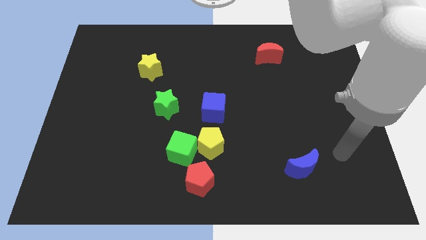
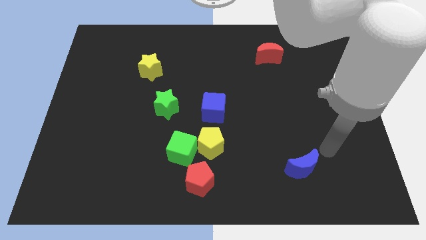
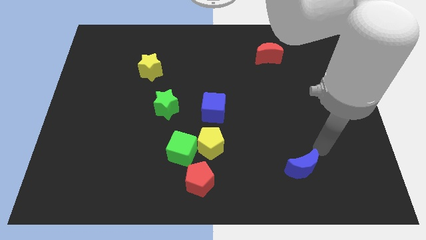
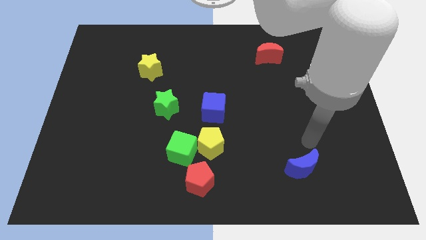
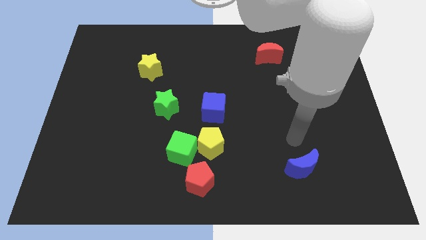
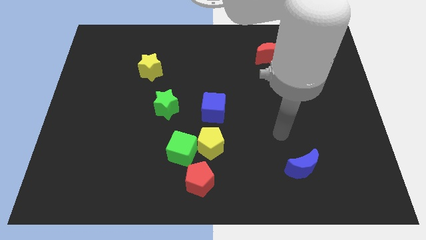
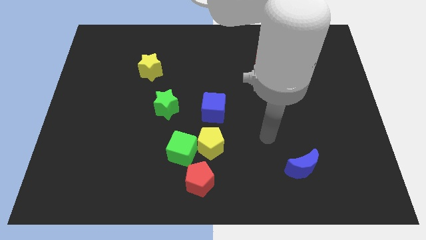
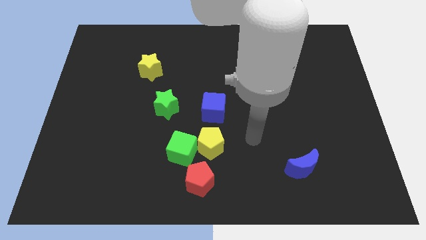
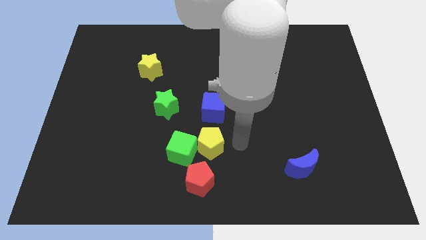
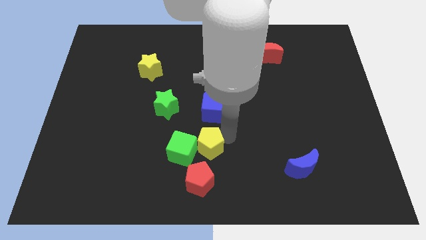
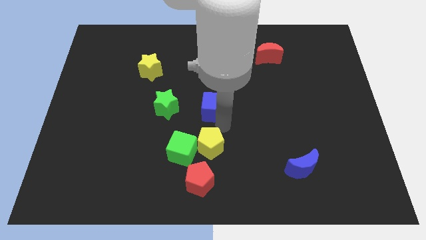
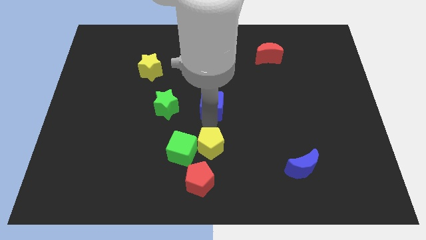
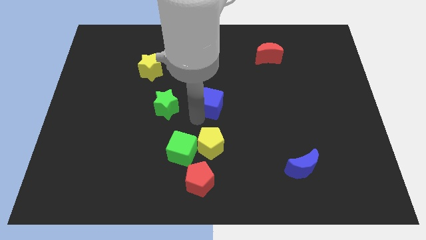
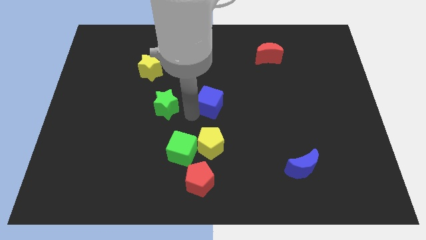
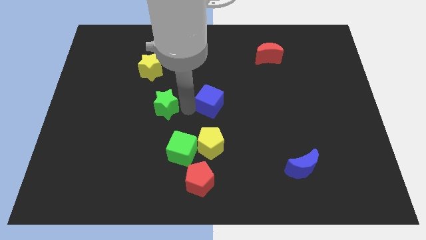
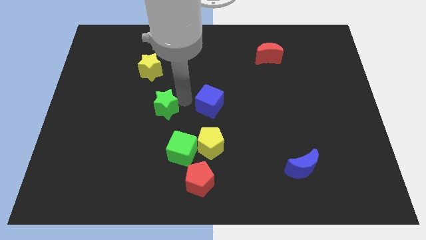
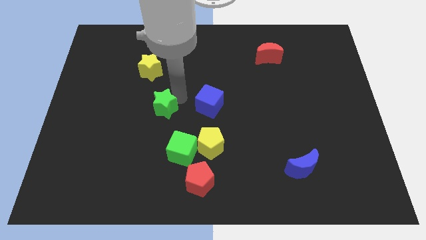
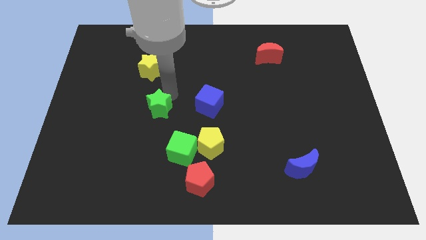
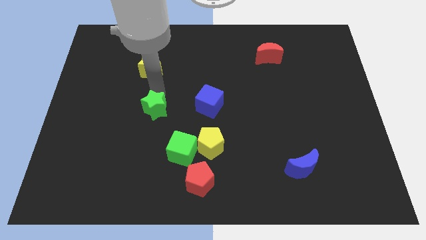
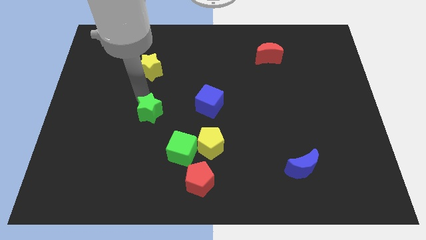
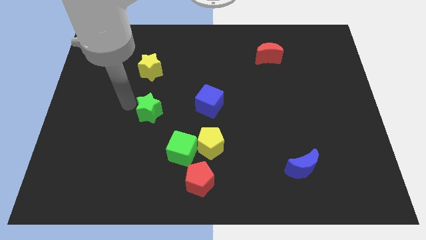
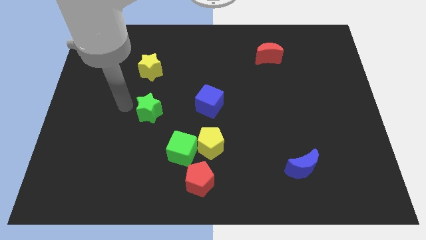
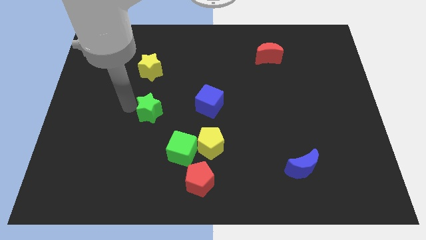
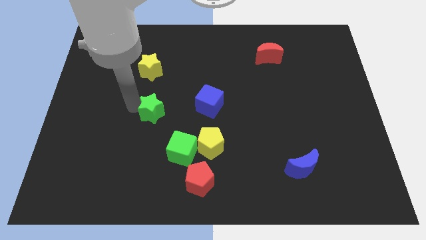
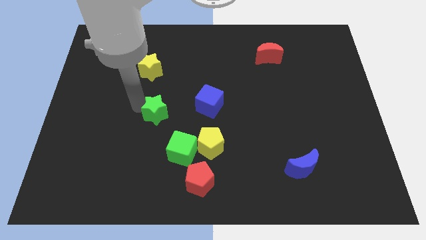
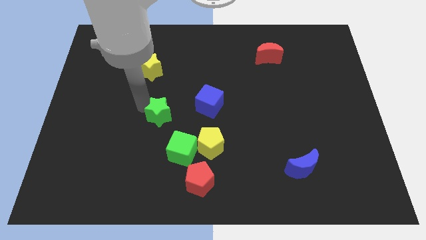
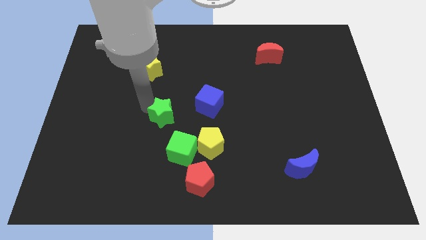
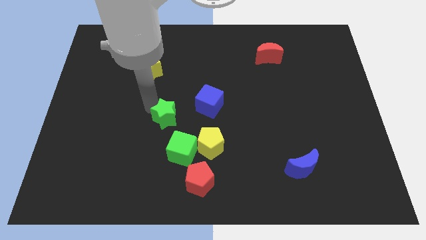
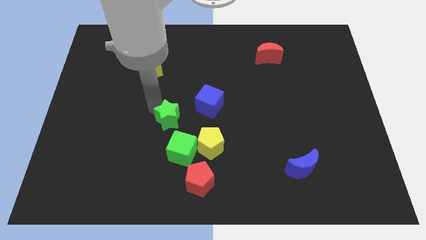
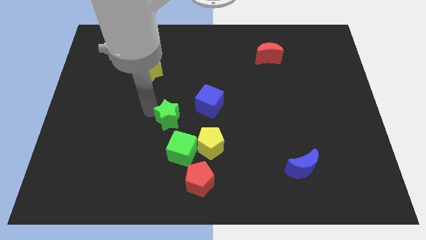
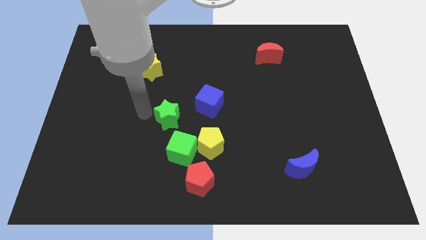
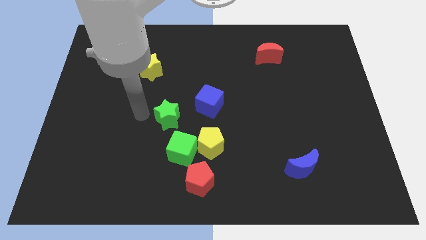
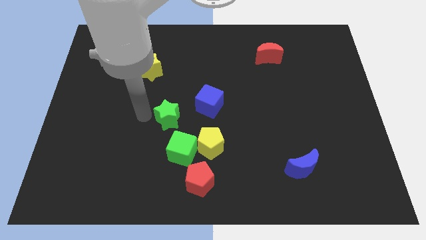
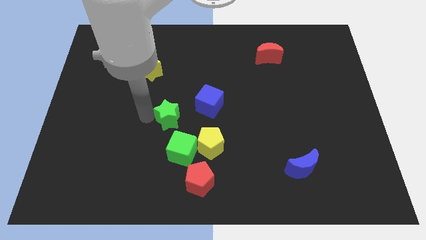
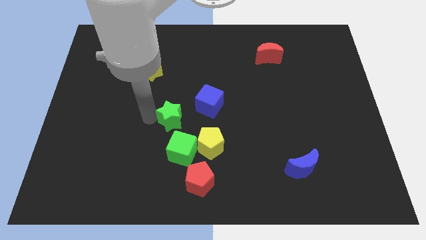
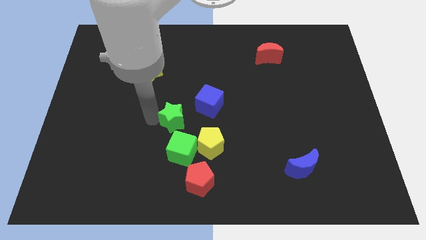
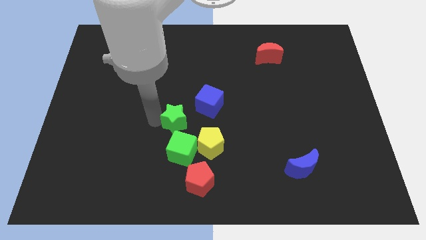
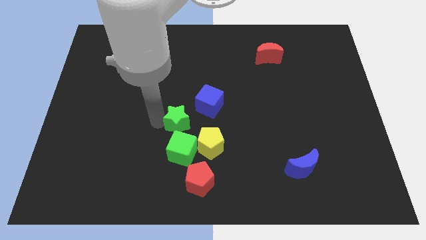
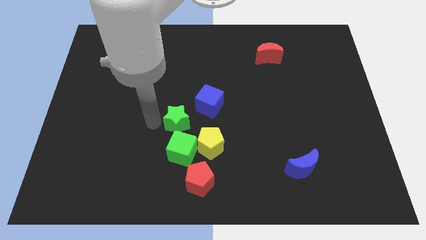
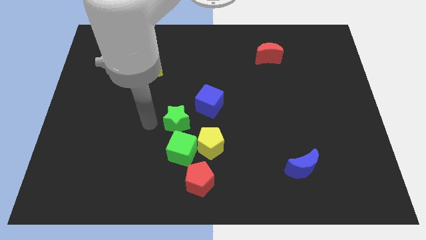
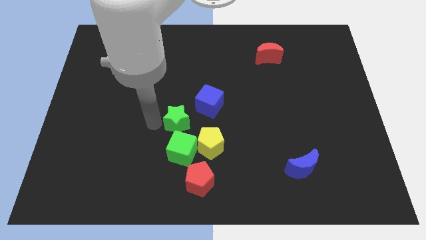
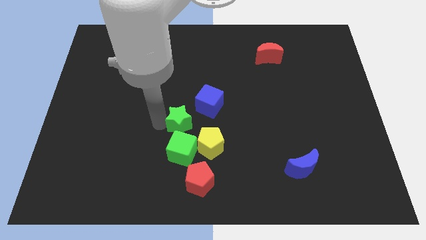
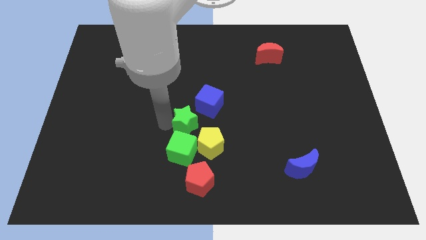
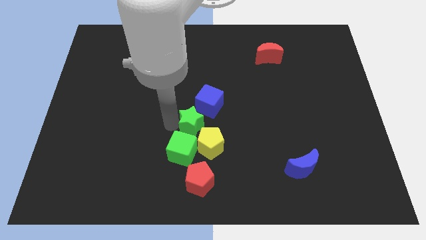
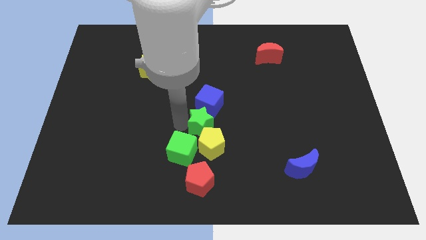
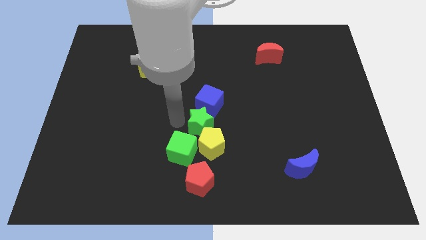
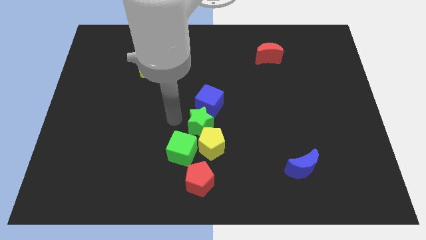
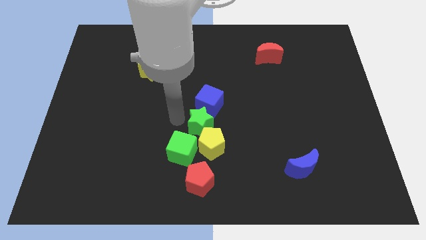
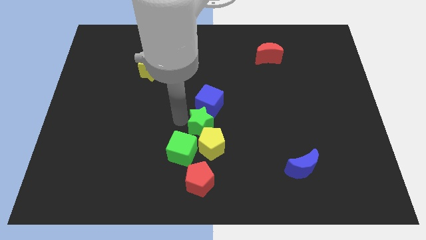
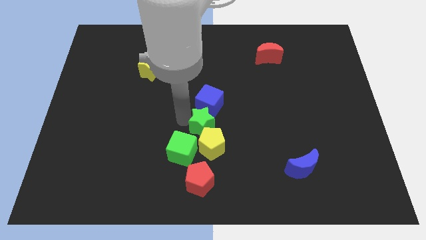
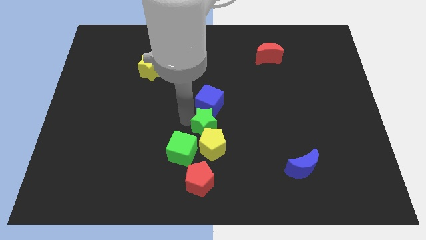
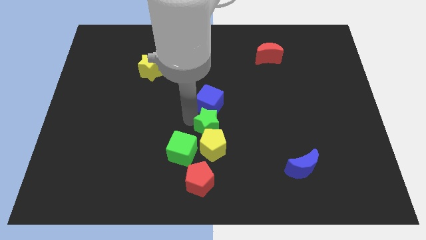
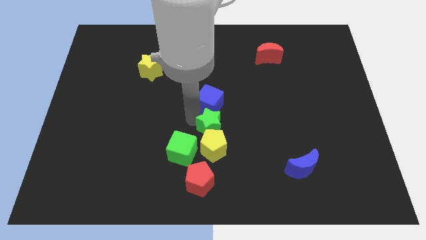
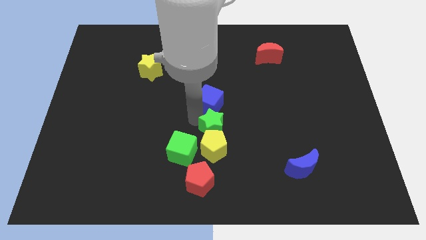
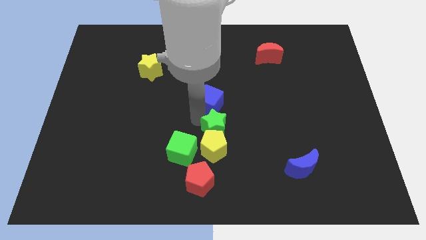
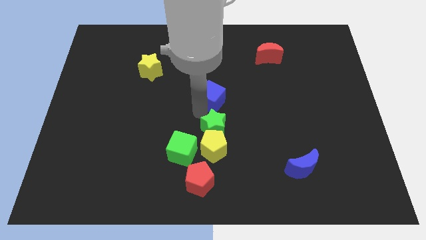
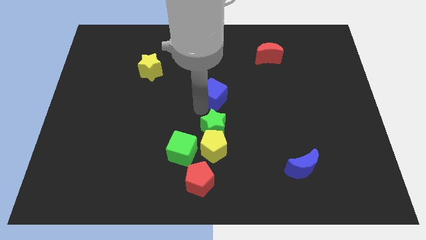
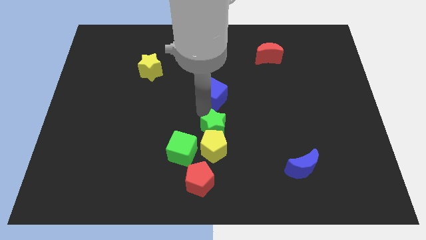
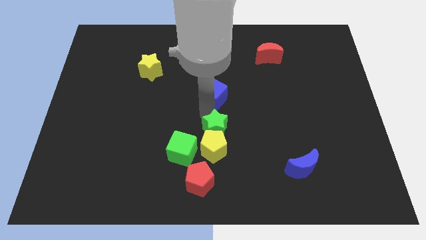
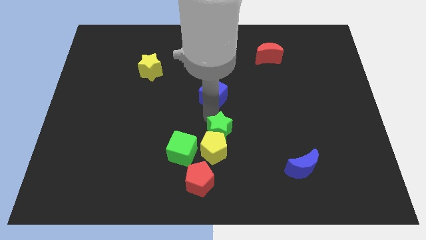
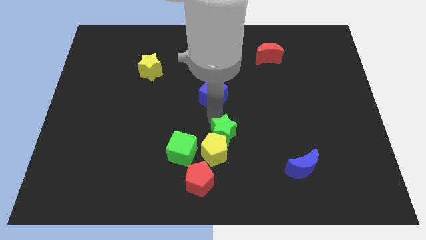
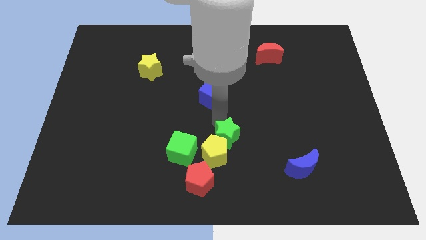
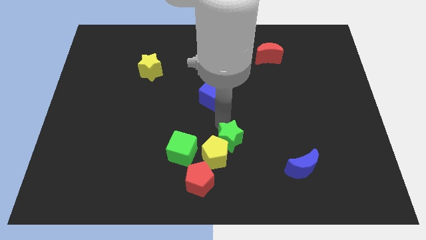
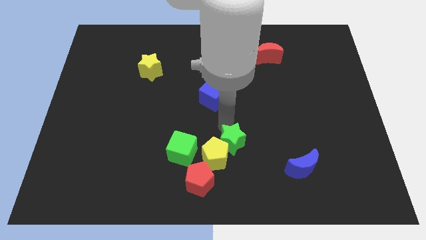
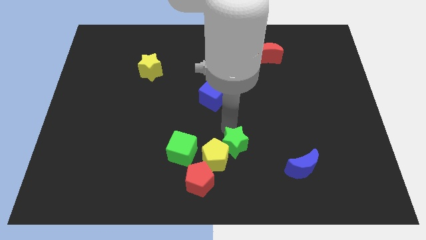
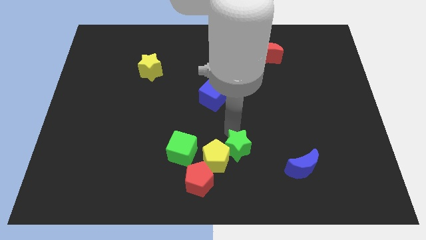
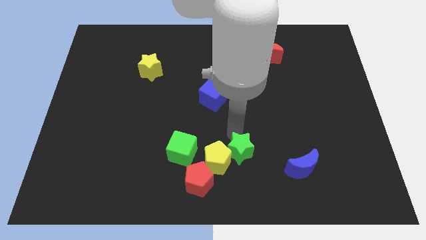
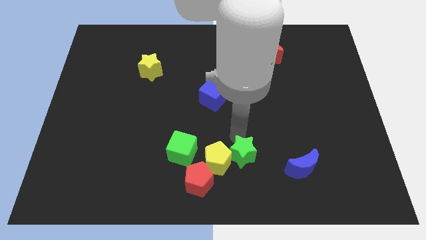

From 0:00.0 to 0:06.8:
slide the green star diagonally down and to the right of the yellow pentagon
